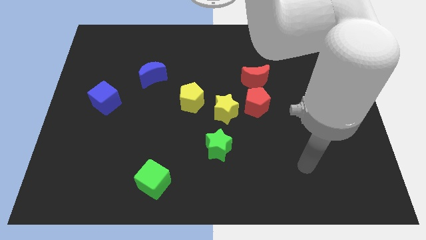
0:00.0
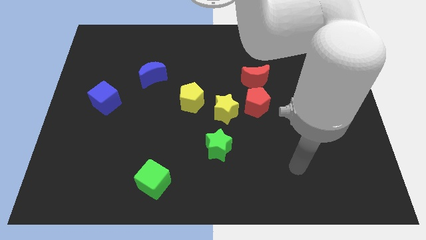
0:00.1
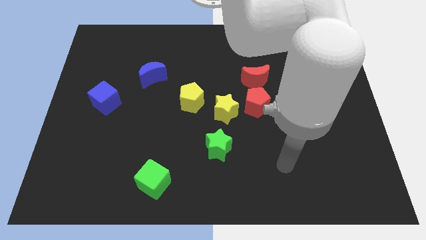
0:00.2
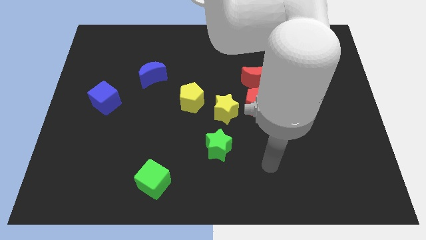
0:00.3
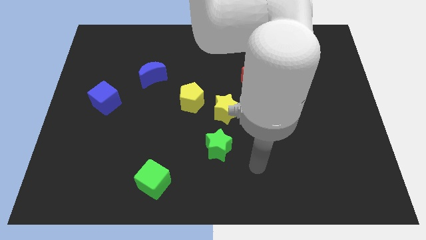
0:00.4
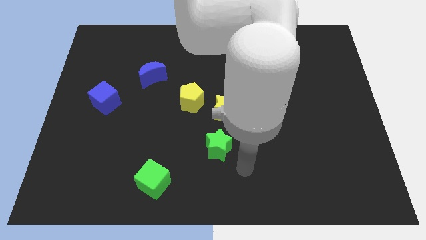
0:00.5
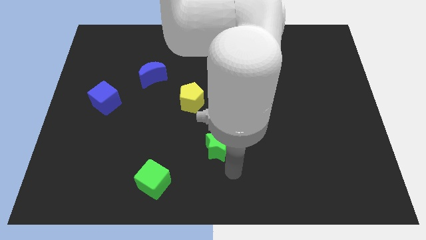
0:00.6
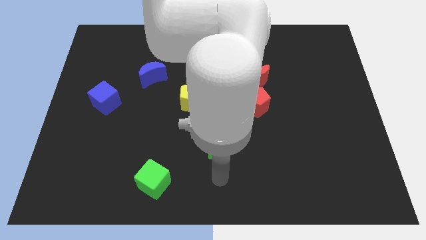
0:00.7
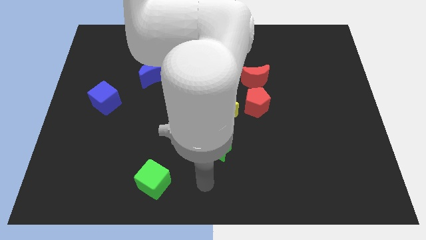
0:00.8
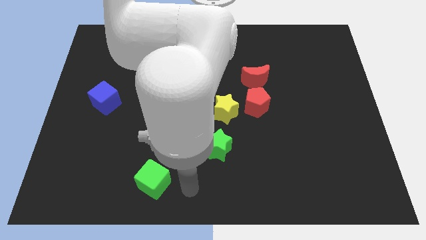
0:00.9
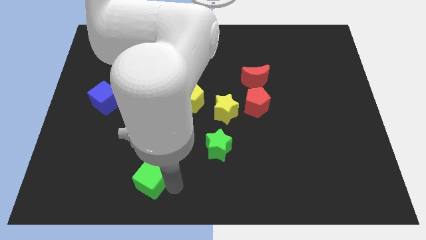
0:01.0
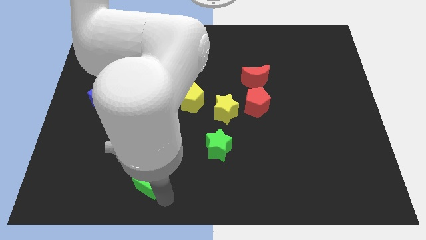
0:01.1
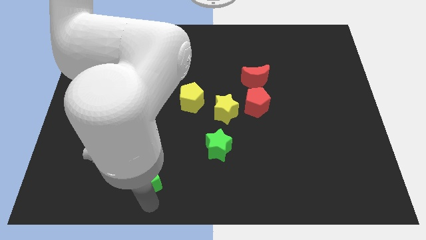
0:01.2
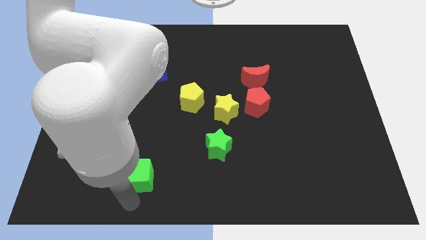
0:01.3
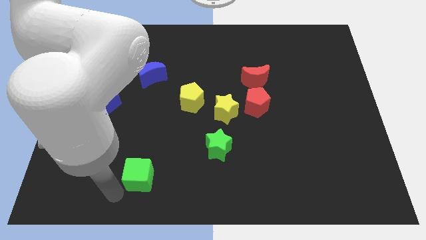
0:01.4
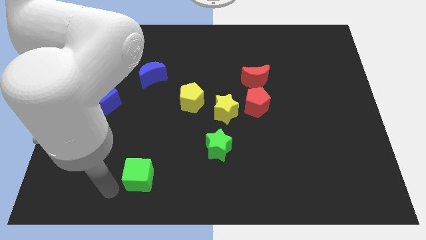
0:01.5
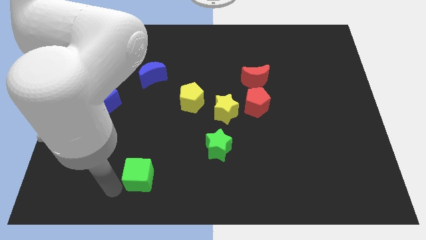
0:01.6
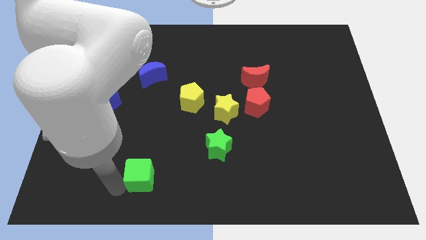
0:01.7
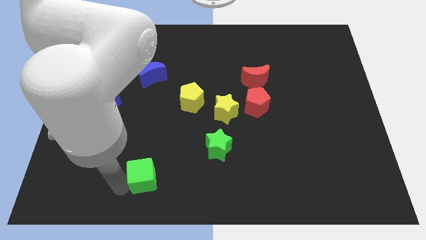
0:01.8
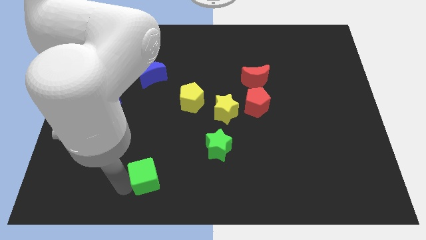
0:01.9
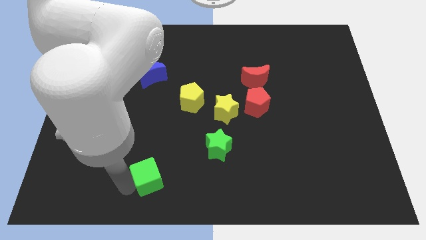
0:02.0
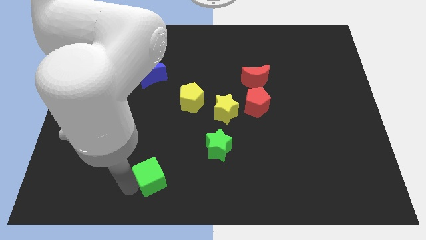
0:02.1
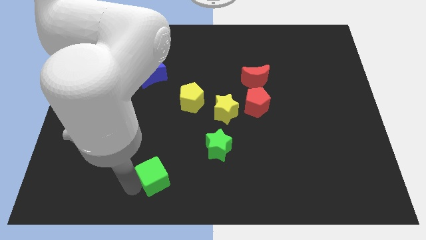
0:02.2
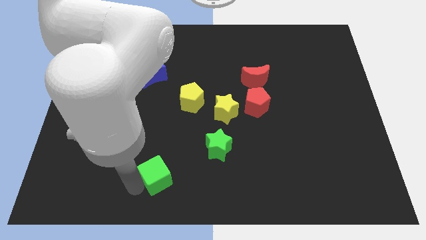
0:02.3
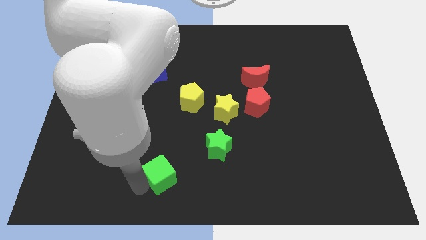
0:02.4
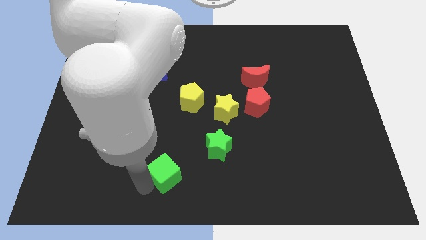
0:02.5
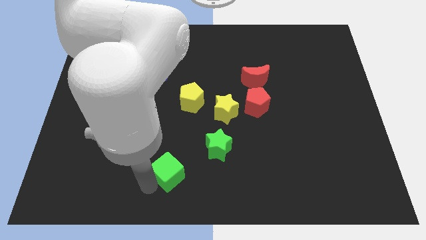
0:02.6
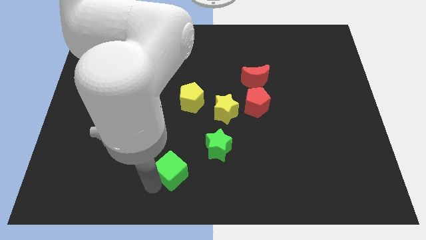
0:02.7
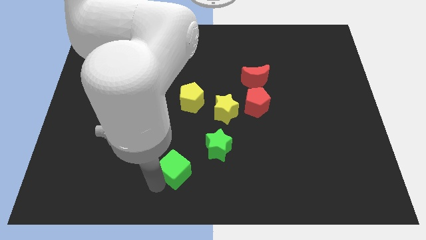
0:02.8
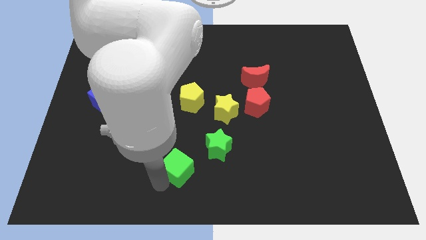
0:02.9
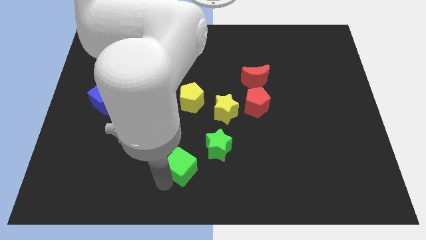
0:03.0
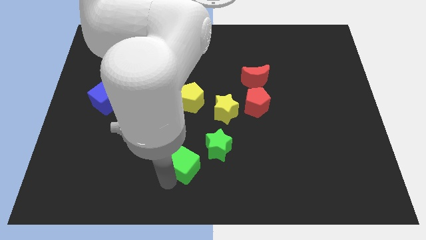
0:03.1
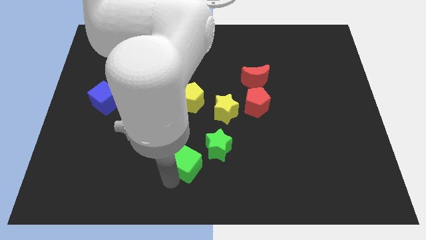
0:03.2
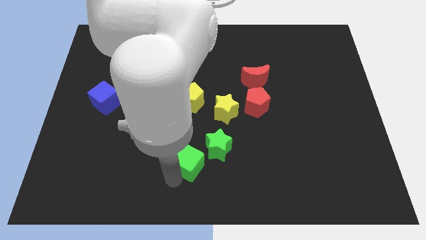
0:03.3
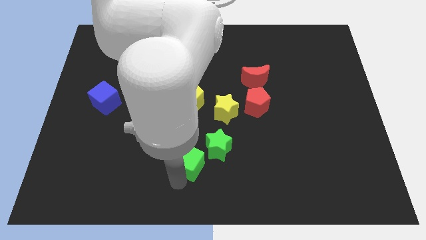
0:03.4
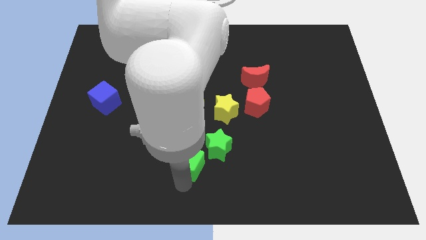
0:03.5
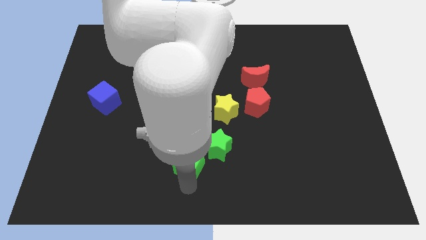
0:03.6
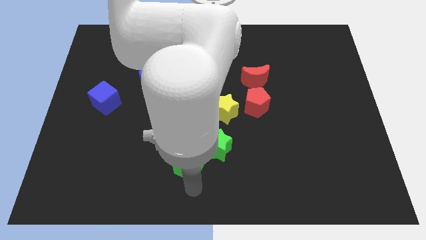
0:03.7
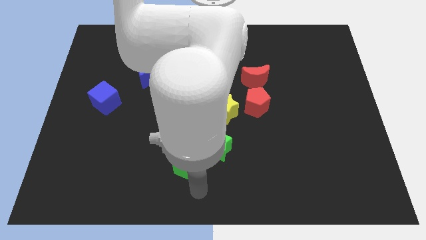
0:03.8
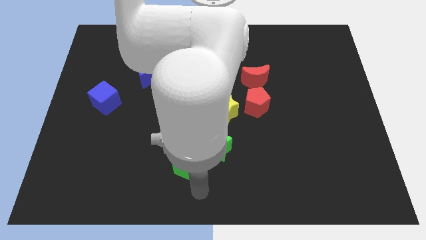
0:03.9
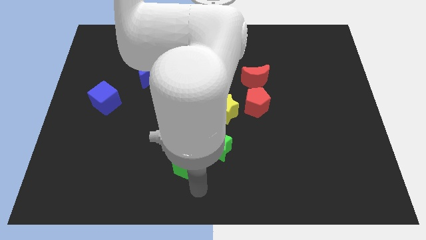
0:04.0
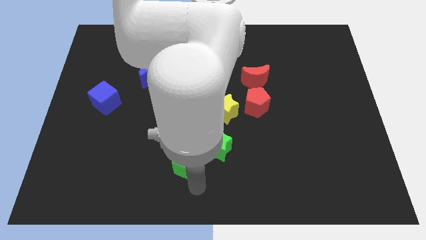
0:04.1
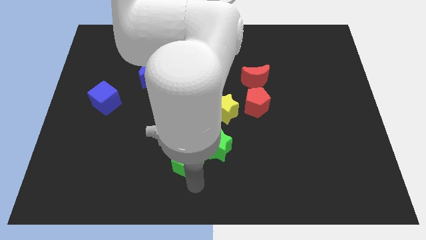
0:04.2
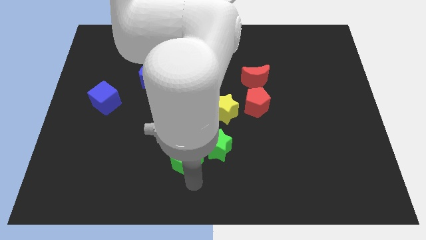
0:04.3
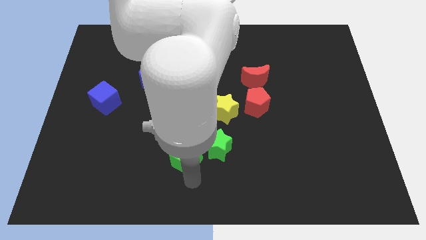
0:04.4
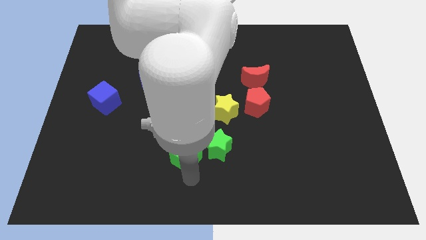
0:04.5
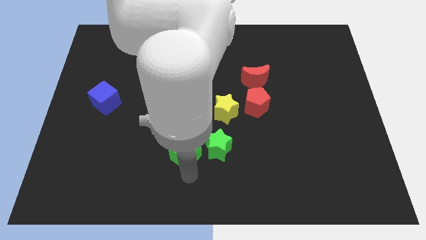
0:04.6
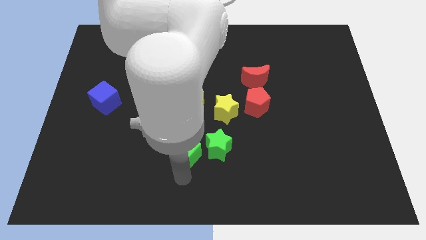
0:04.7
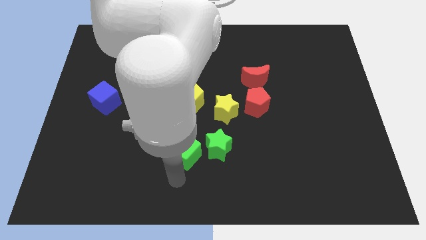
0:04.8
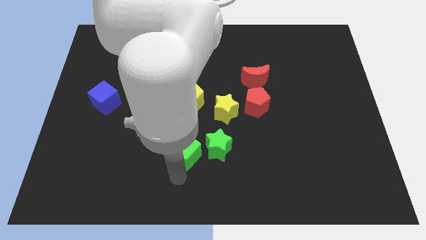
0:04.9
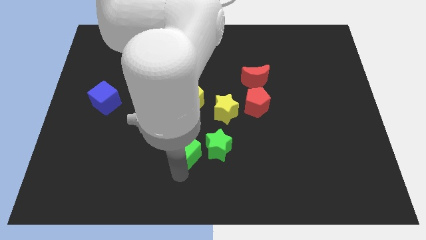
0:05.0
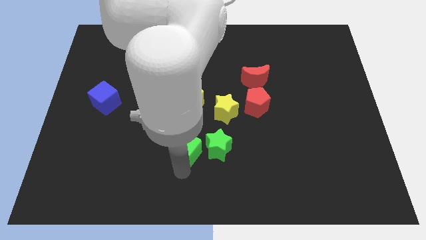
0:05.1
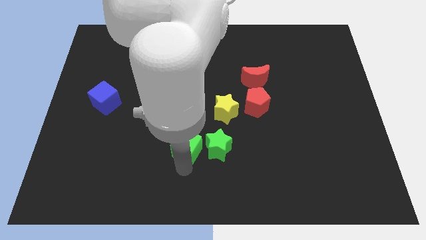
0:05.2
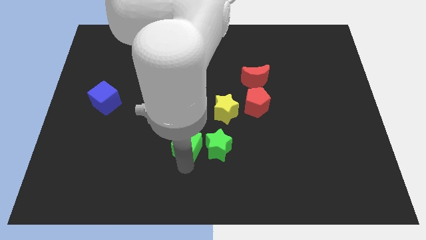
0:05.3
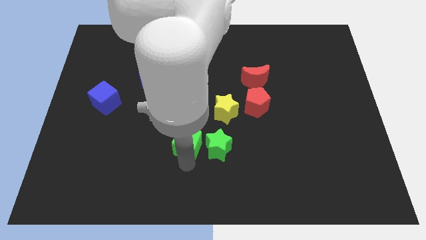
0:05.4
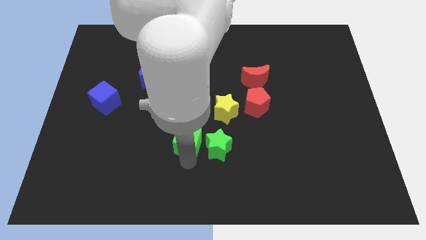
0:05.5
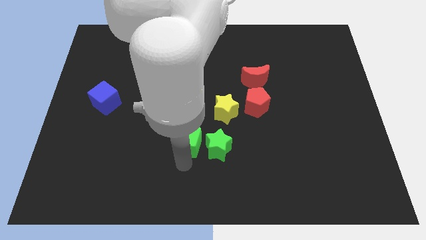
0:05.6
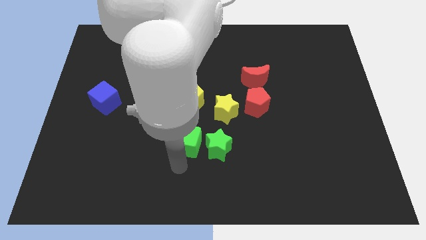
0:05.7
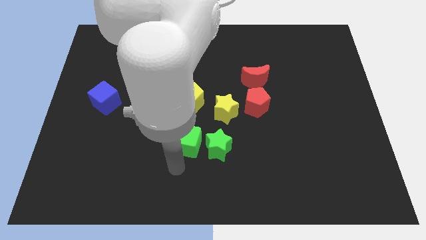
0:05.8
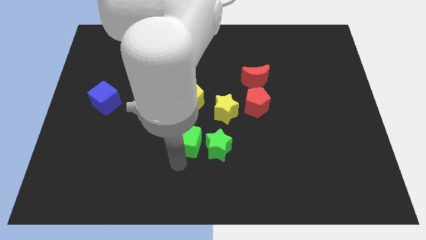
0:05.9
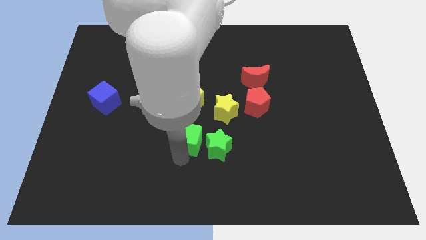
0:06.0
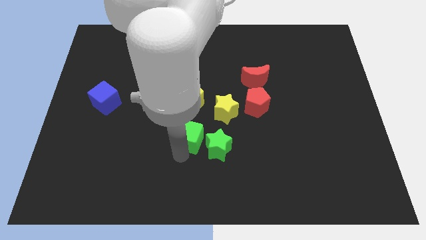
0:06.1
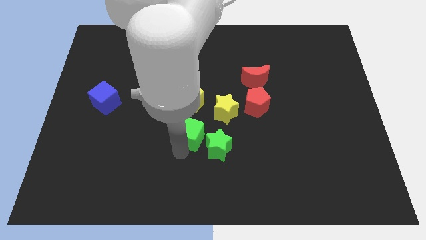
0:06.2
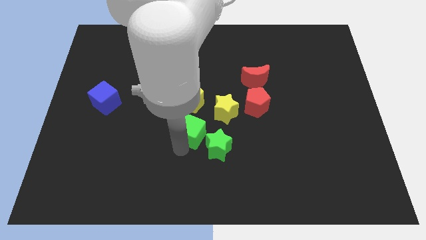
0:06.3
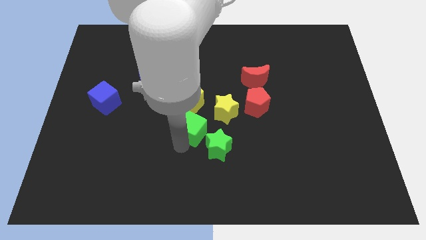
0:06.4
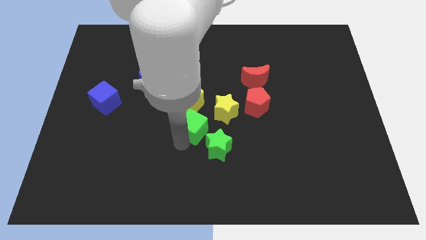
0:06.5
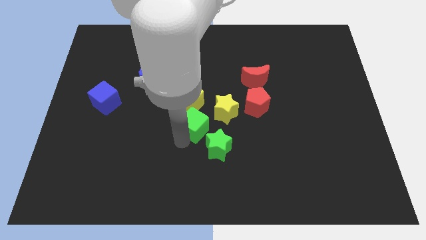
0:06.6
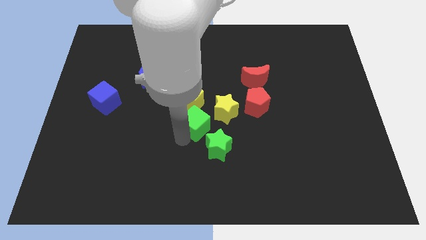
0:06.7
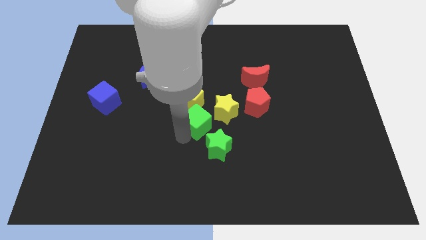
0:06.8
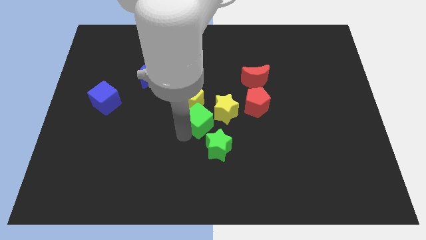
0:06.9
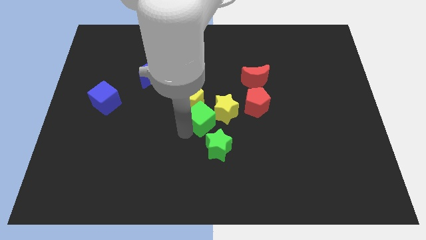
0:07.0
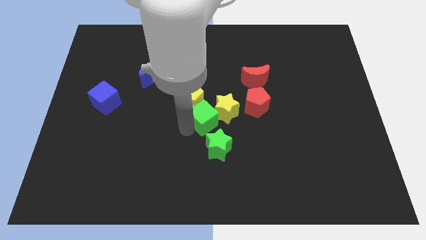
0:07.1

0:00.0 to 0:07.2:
slide the green cube towards the yellow star
